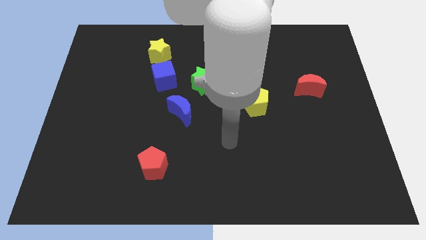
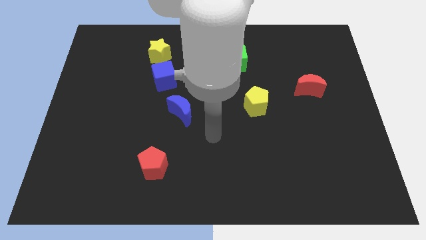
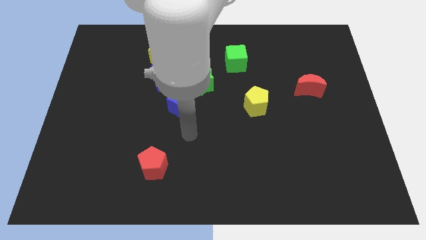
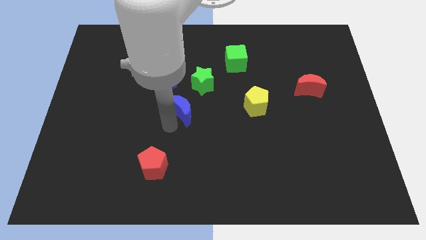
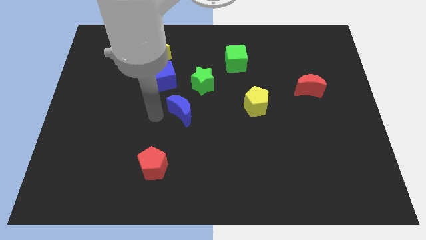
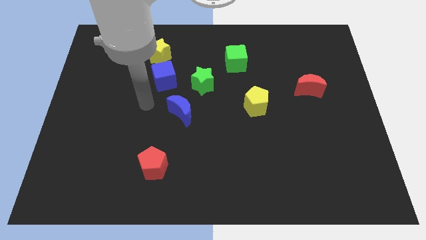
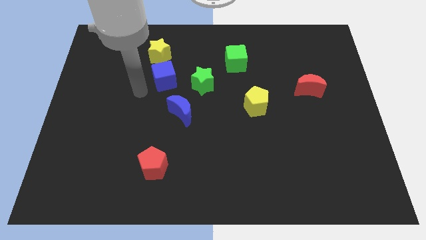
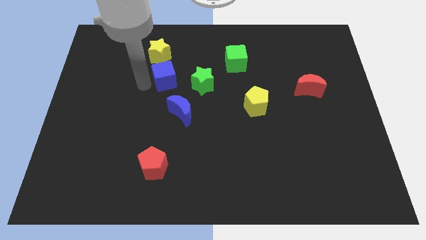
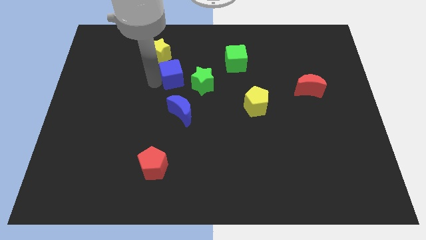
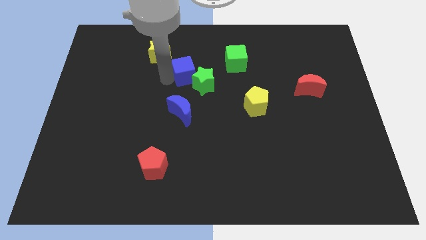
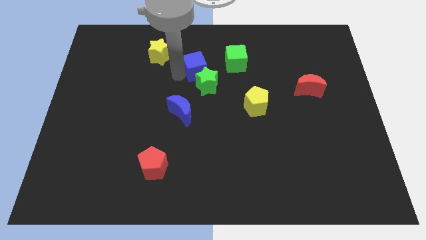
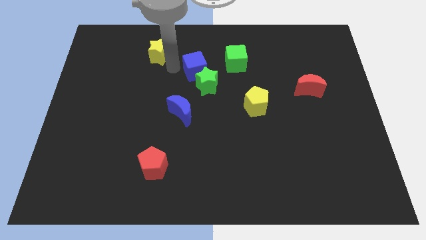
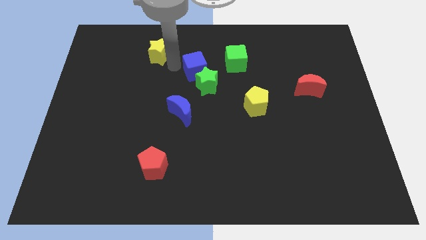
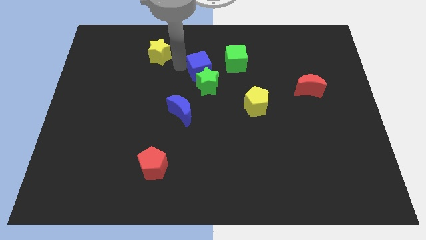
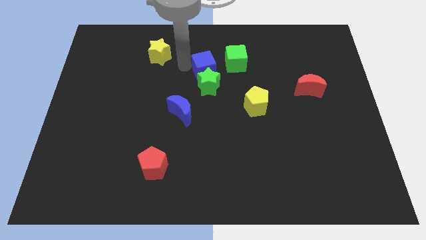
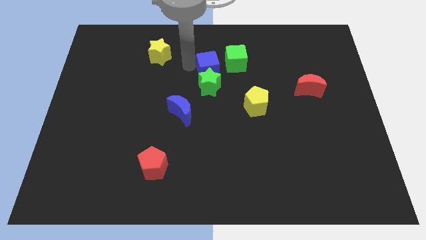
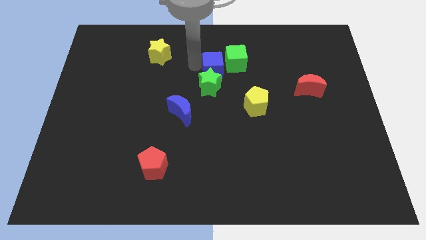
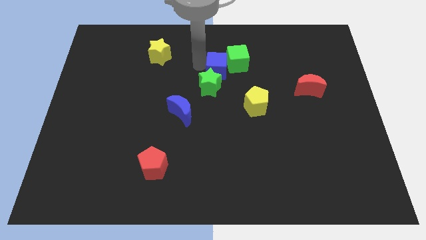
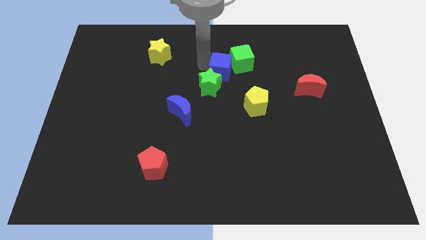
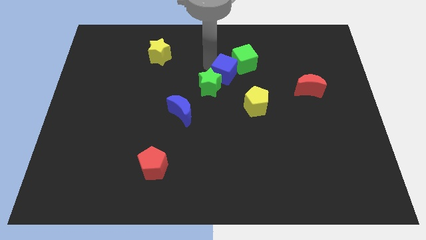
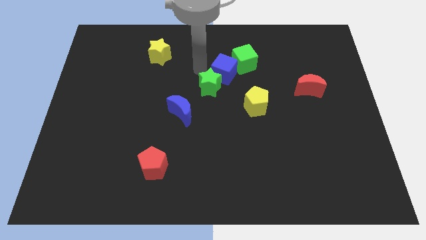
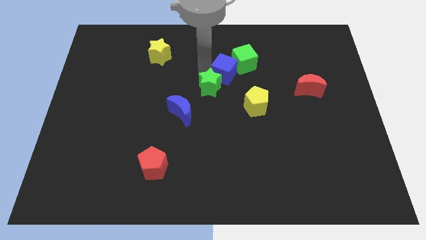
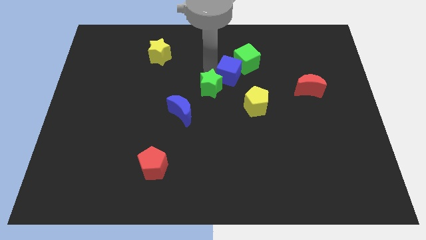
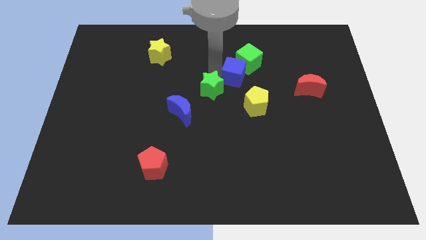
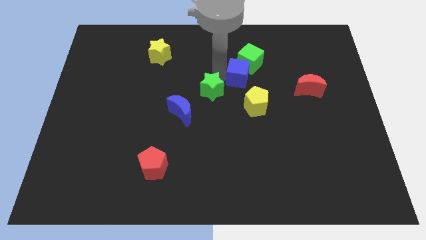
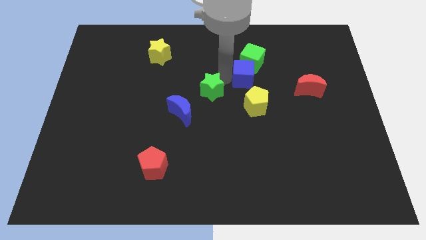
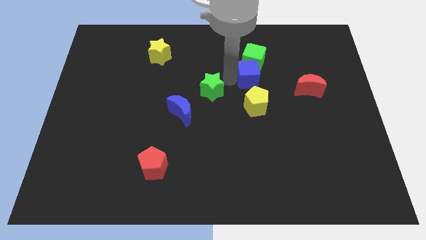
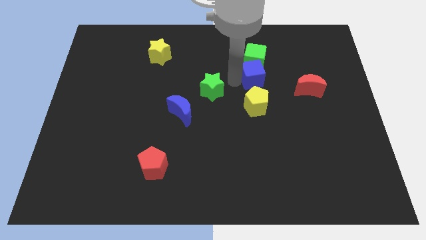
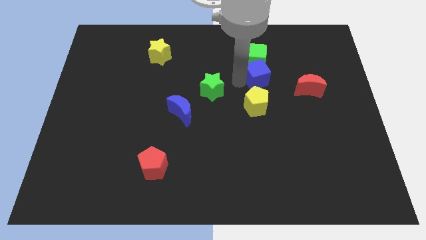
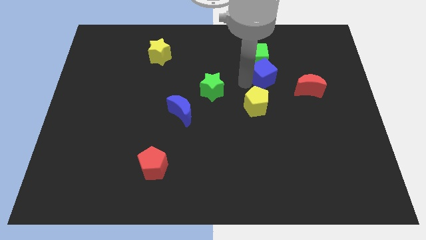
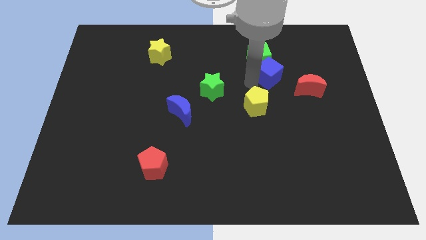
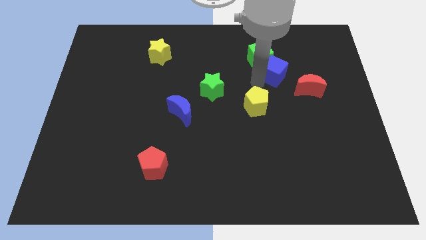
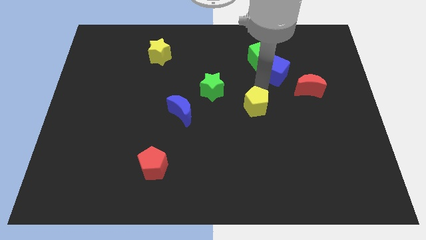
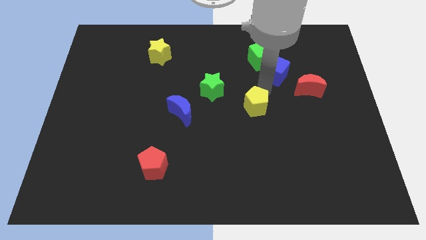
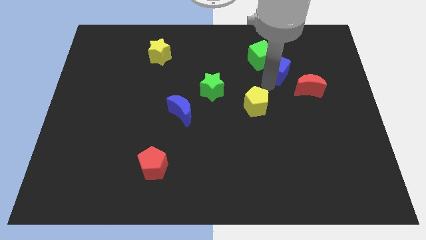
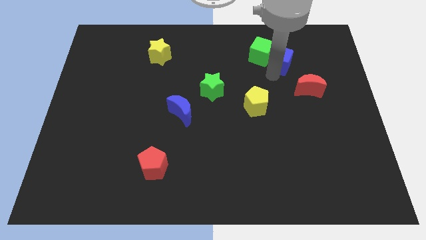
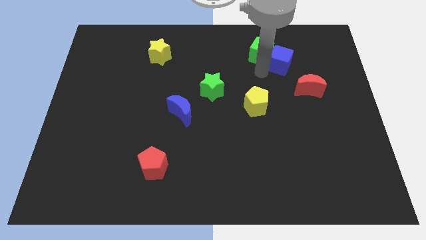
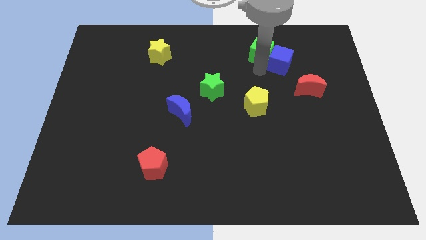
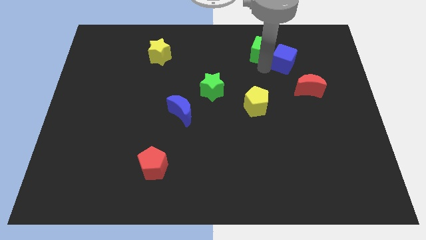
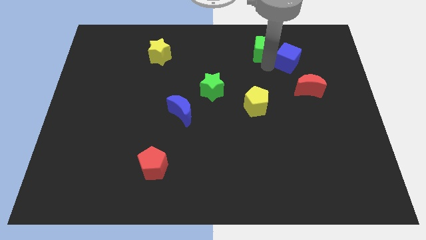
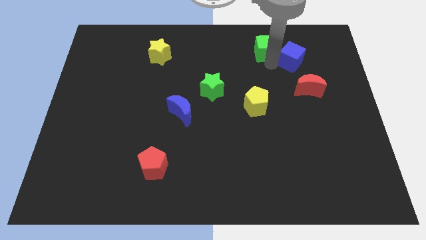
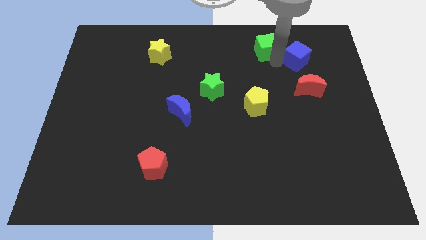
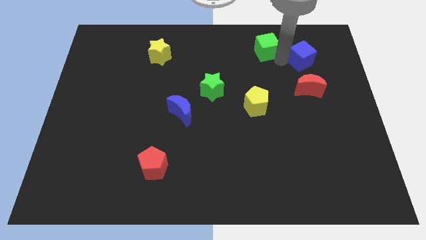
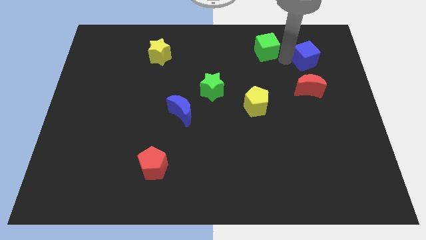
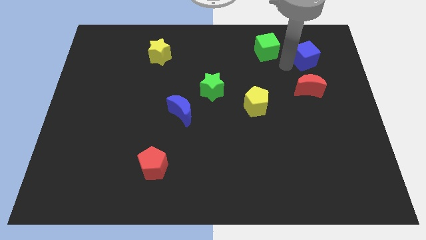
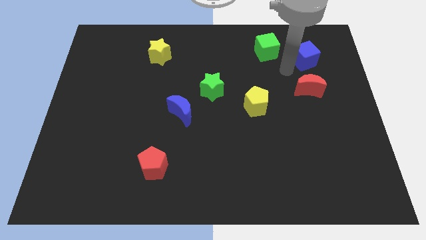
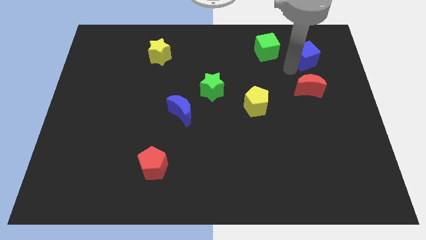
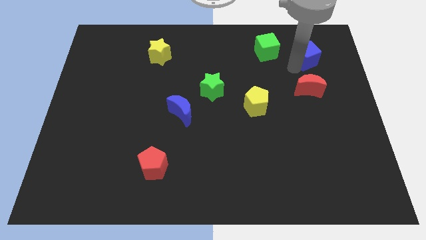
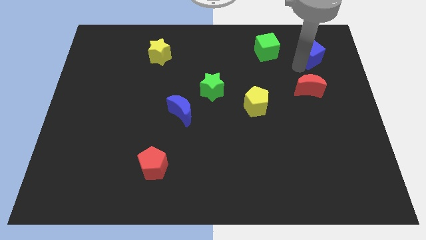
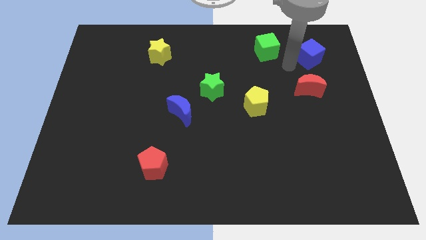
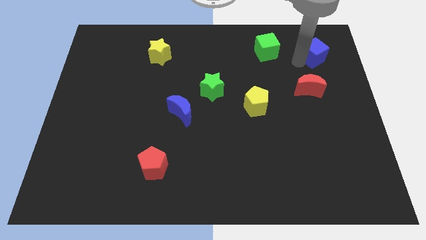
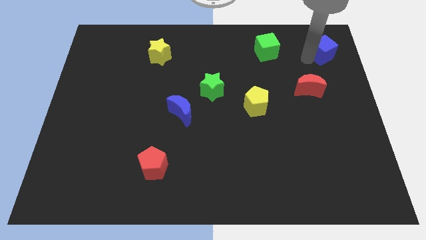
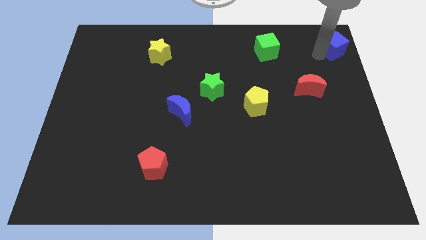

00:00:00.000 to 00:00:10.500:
move the blue cube to the upper right corner

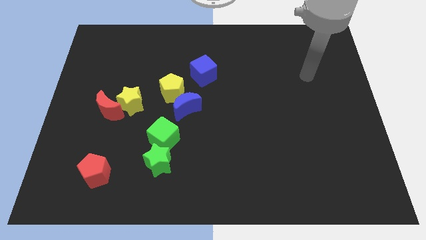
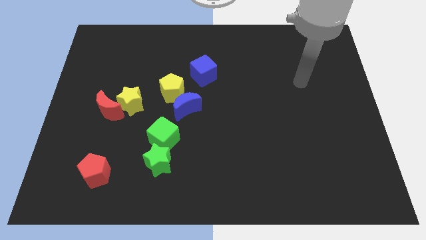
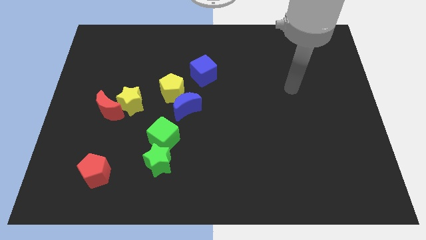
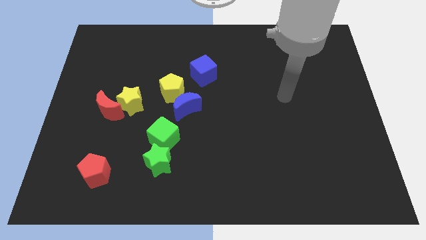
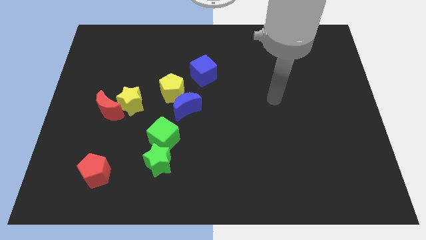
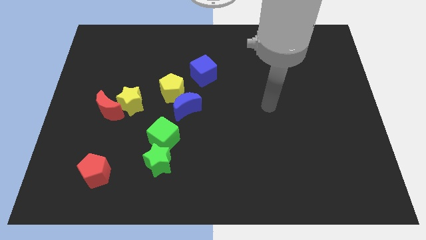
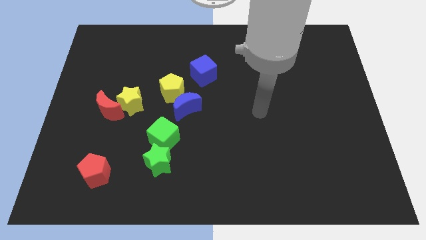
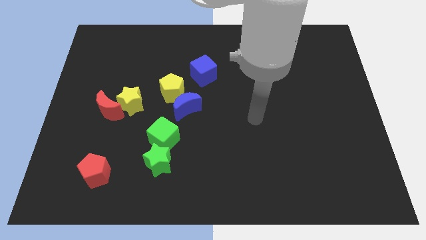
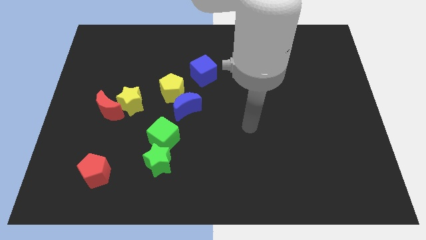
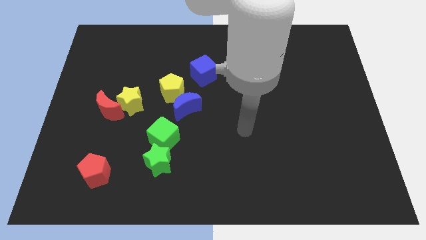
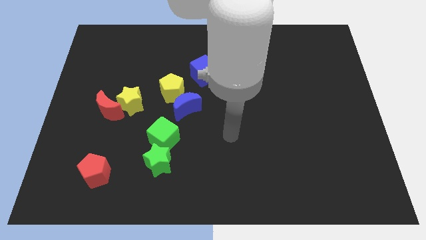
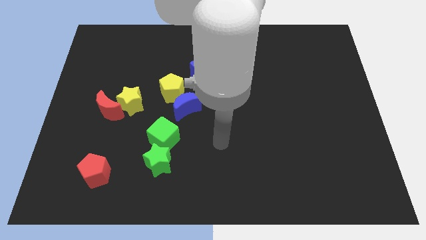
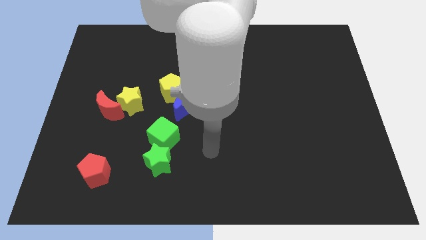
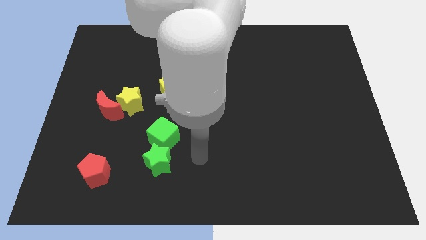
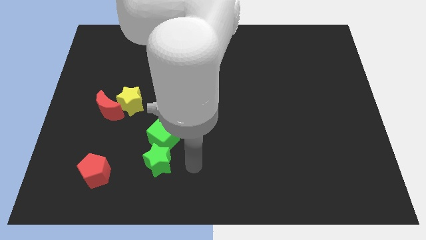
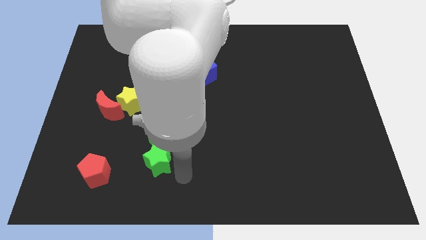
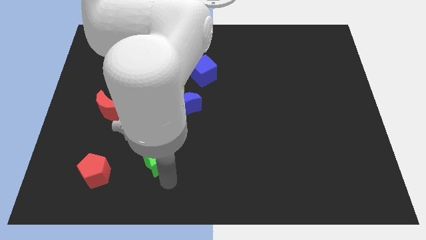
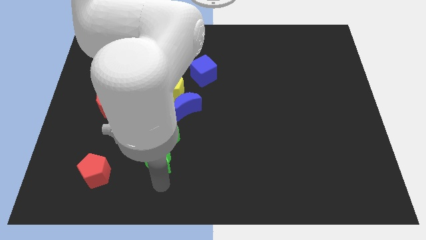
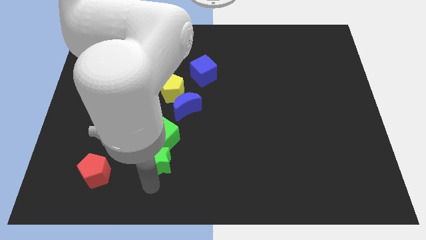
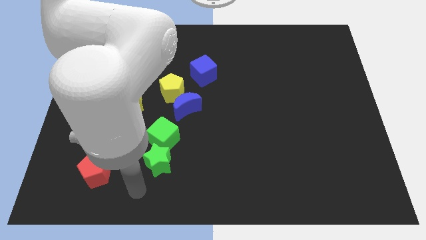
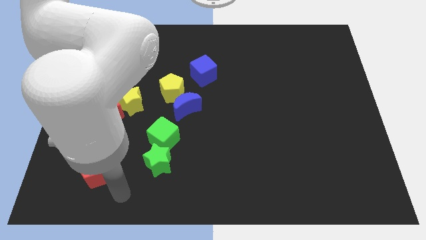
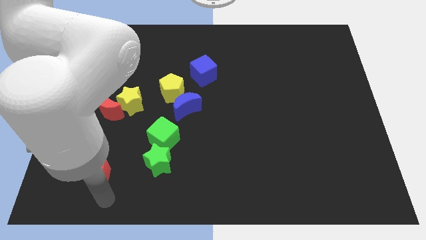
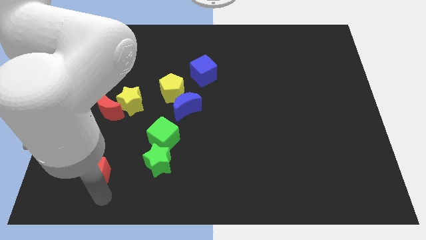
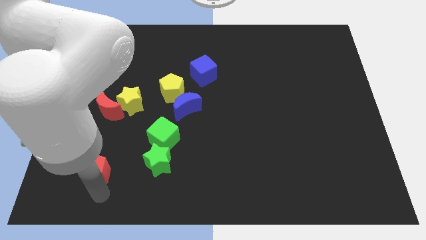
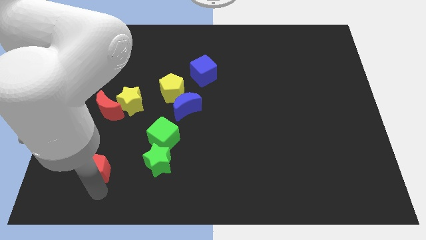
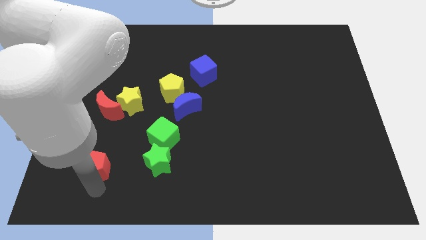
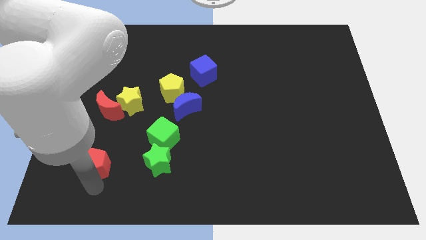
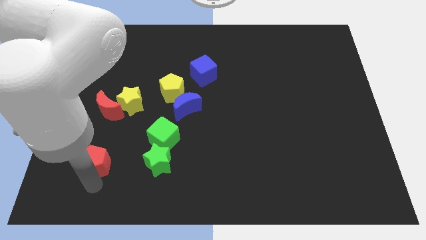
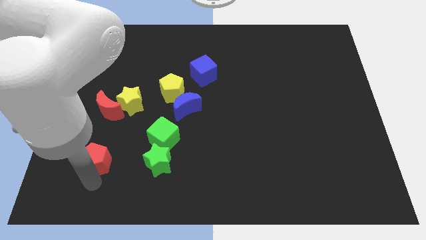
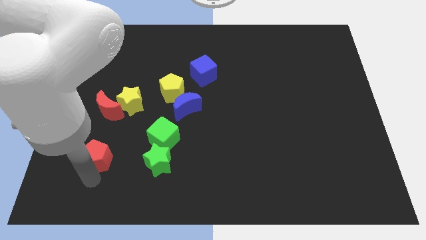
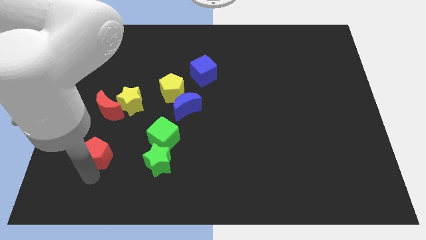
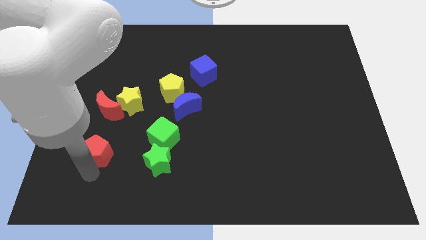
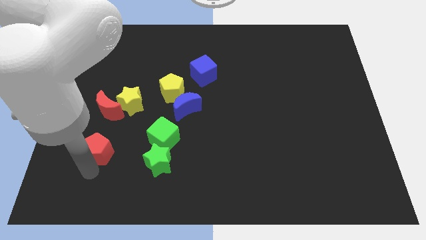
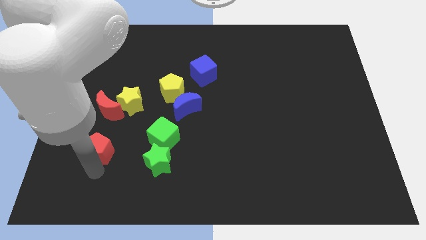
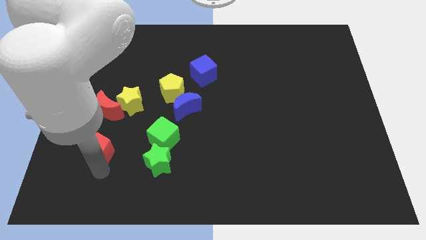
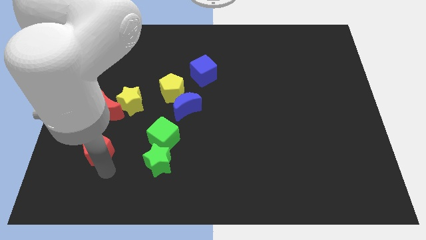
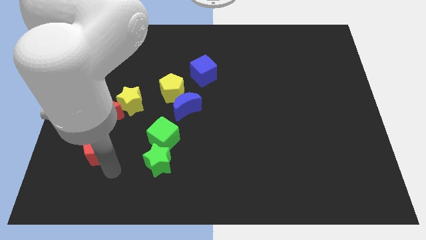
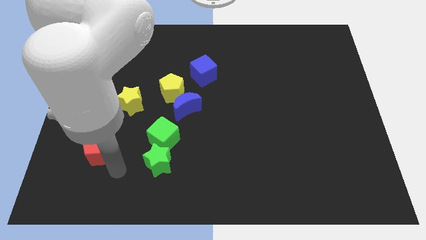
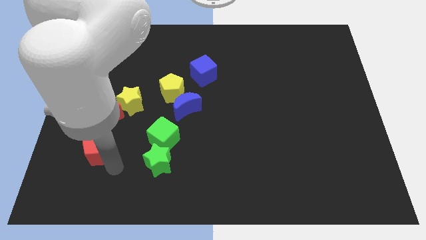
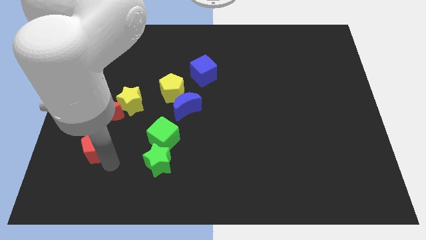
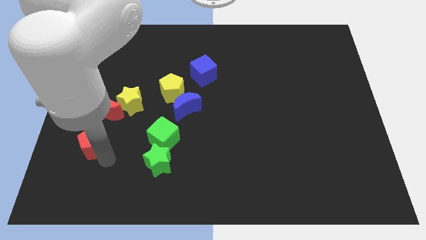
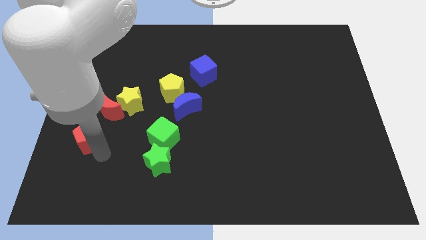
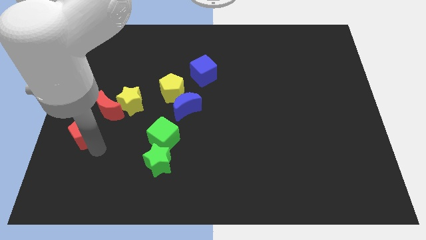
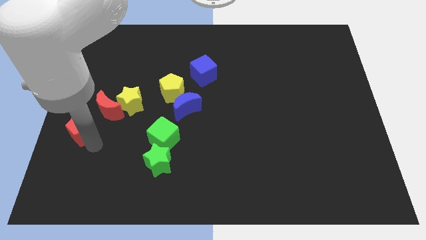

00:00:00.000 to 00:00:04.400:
push the red pentagon to the left side
